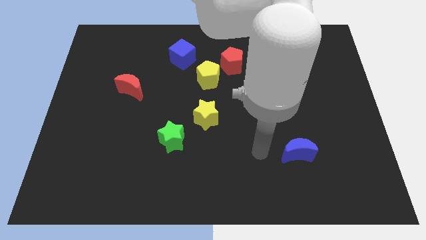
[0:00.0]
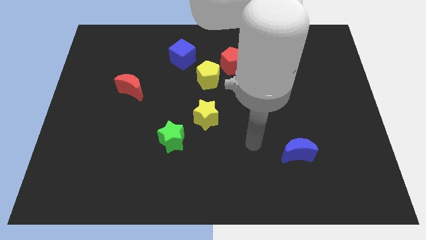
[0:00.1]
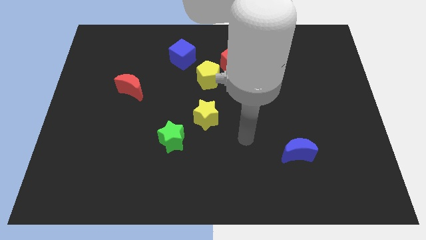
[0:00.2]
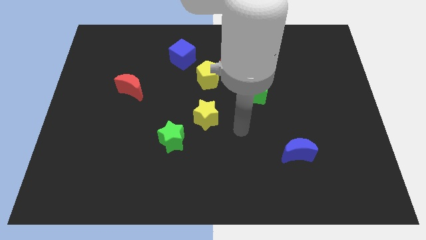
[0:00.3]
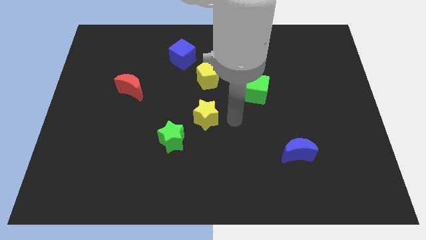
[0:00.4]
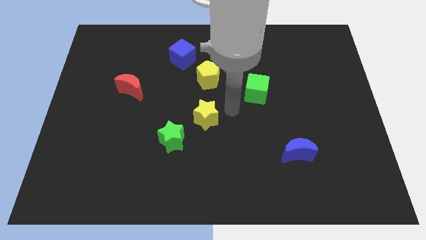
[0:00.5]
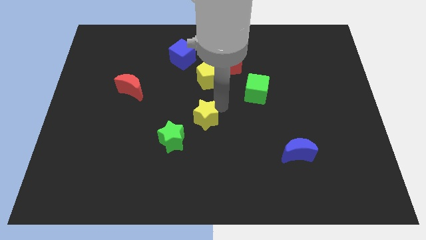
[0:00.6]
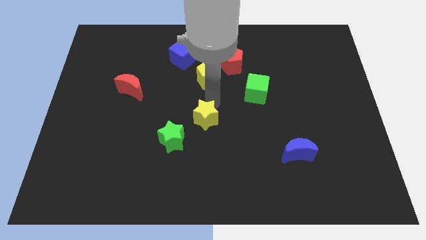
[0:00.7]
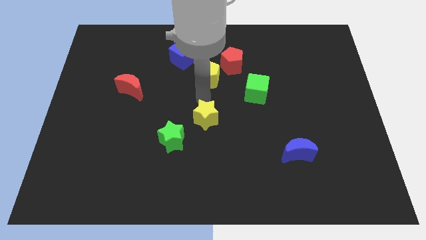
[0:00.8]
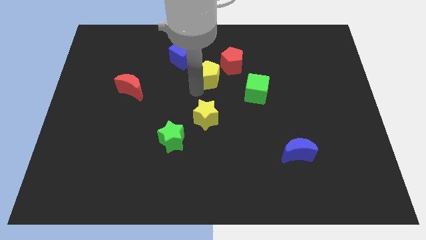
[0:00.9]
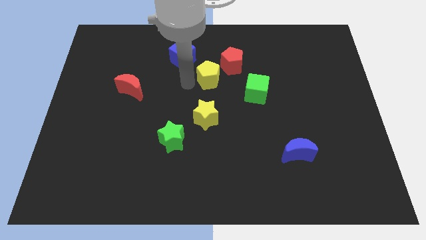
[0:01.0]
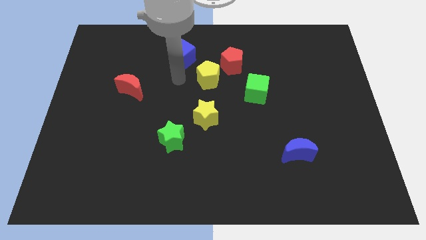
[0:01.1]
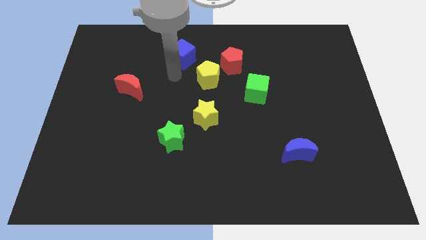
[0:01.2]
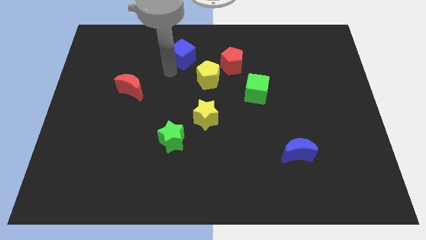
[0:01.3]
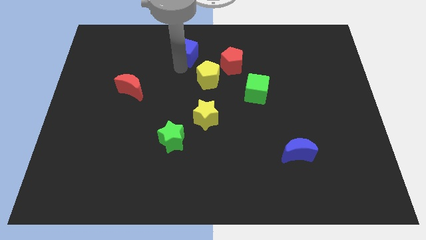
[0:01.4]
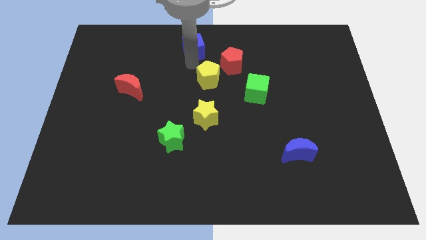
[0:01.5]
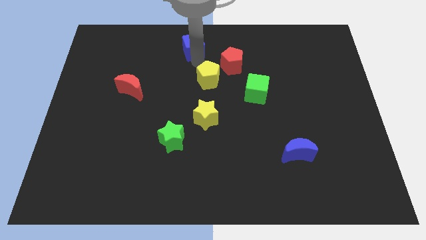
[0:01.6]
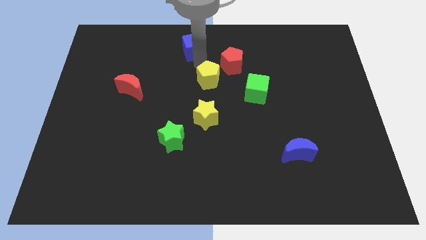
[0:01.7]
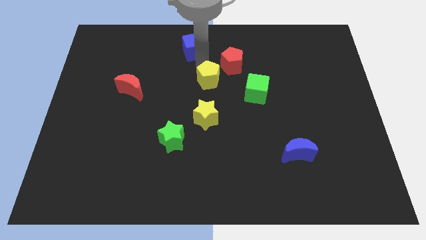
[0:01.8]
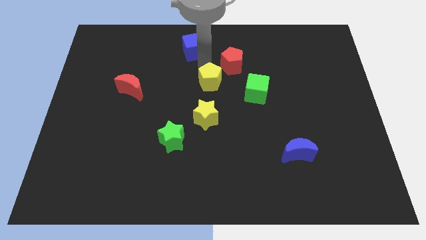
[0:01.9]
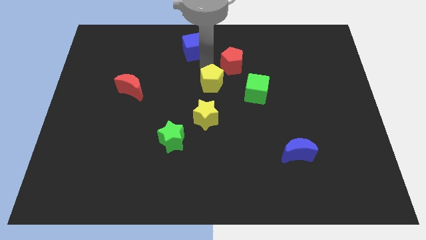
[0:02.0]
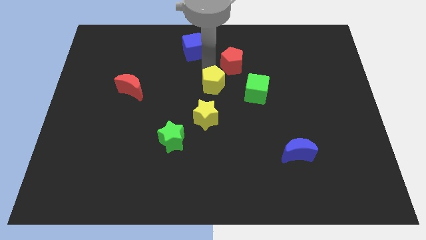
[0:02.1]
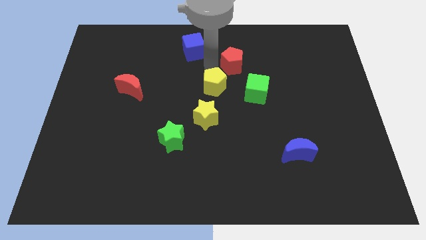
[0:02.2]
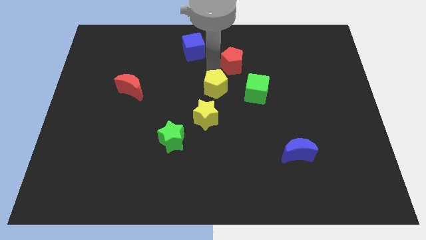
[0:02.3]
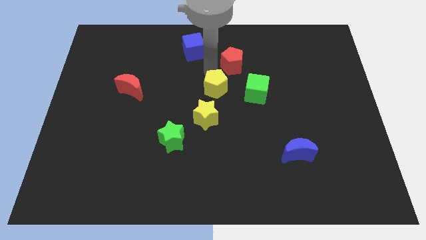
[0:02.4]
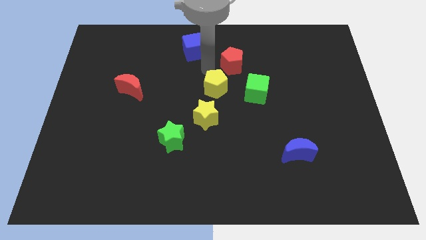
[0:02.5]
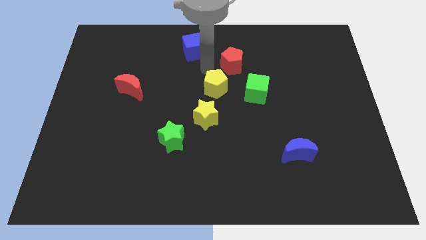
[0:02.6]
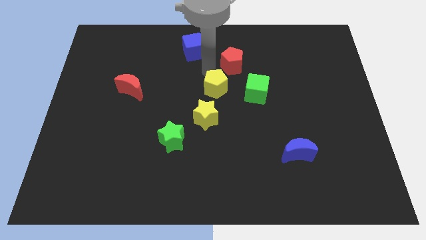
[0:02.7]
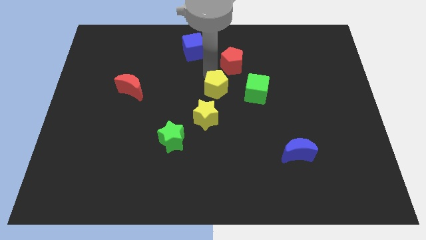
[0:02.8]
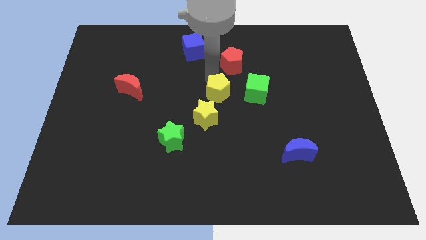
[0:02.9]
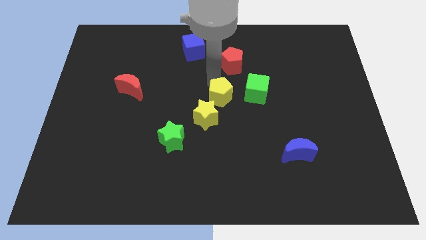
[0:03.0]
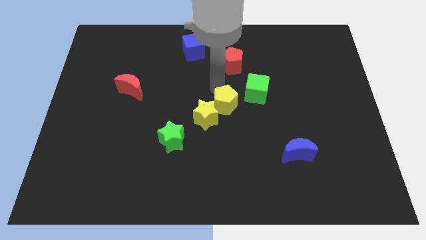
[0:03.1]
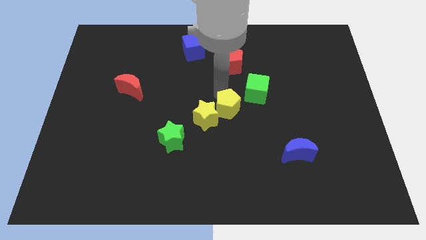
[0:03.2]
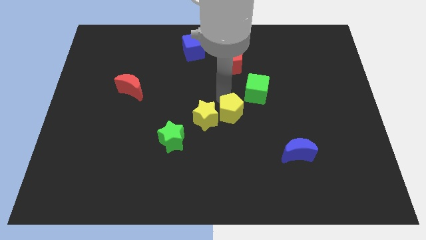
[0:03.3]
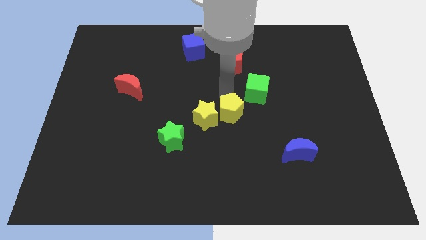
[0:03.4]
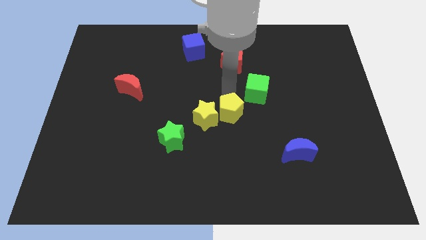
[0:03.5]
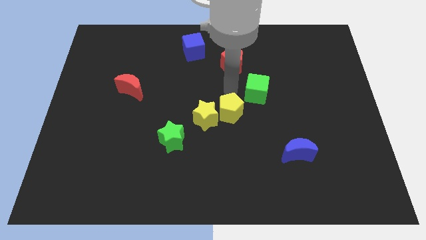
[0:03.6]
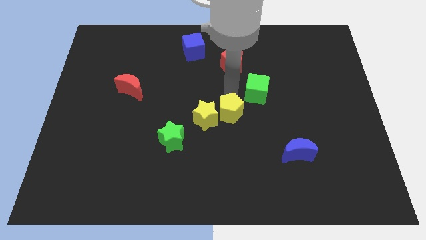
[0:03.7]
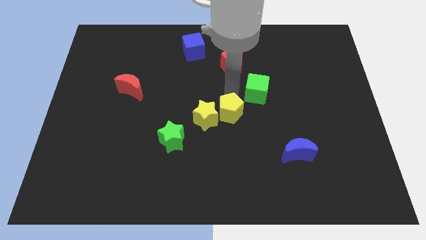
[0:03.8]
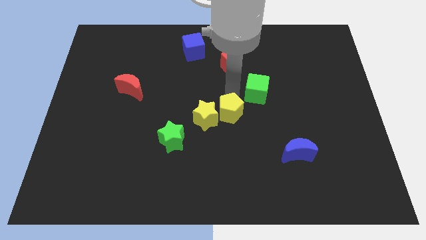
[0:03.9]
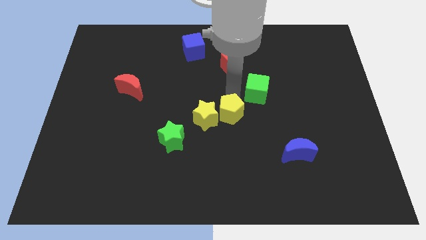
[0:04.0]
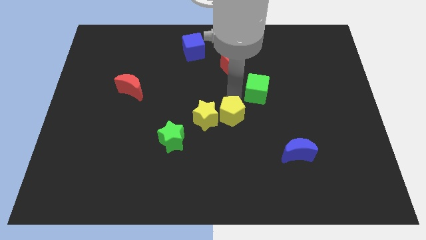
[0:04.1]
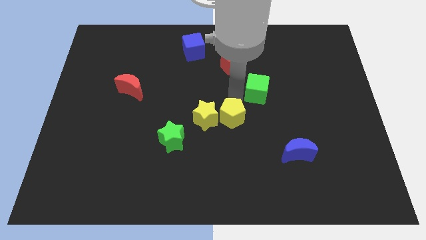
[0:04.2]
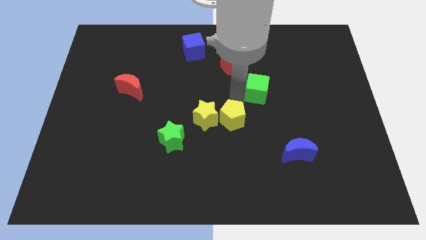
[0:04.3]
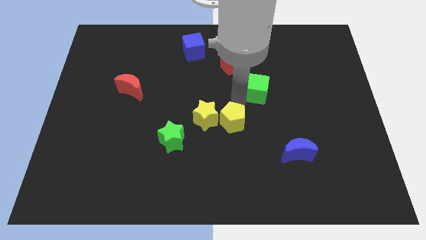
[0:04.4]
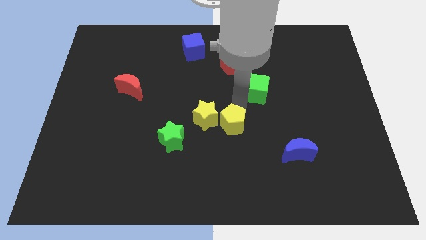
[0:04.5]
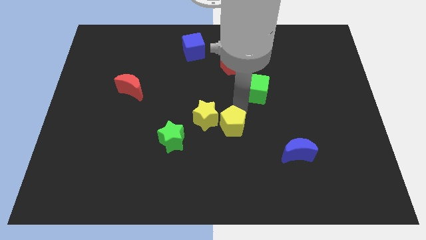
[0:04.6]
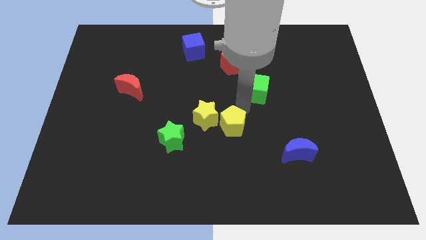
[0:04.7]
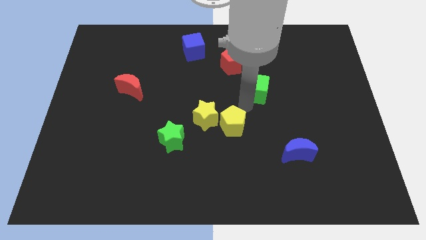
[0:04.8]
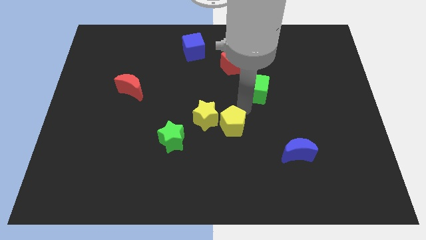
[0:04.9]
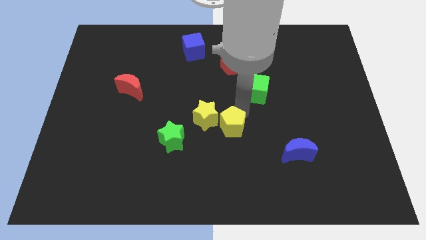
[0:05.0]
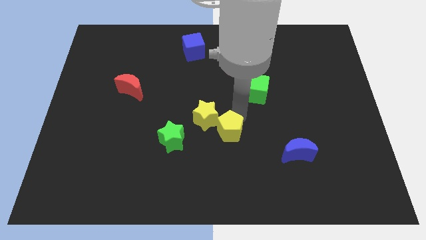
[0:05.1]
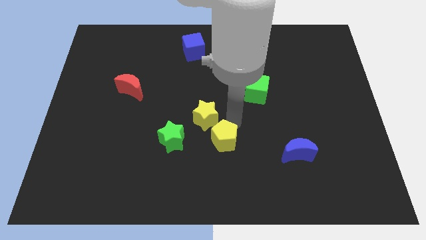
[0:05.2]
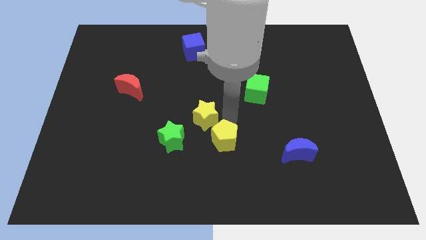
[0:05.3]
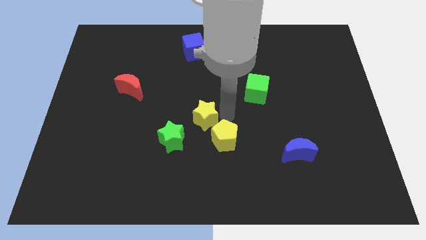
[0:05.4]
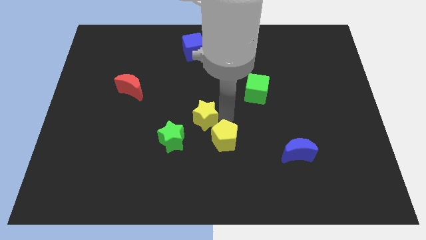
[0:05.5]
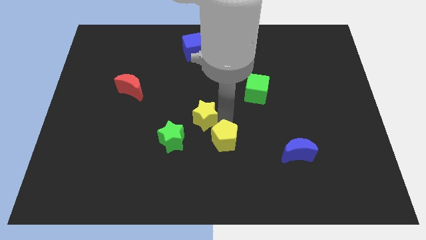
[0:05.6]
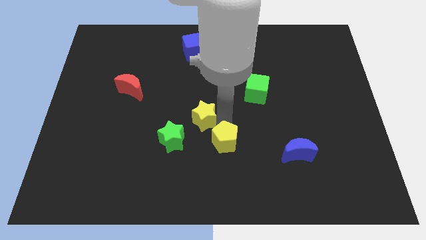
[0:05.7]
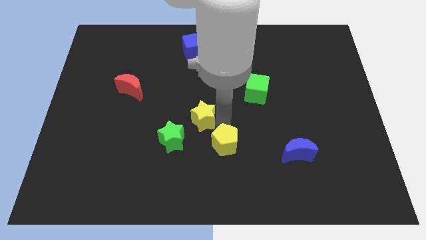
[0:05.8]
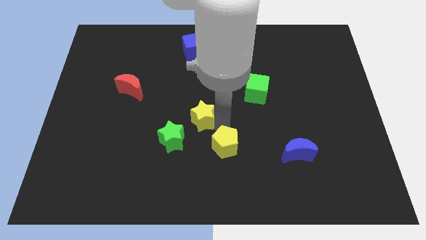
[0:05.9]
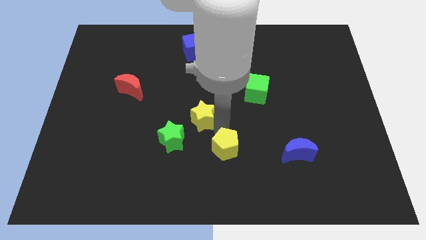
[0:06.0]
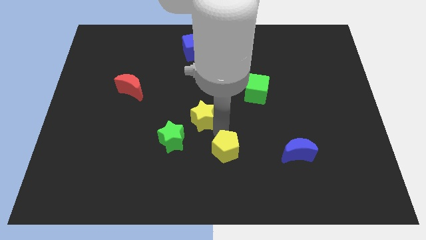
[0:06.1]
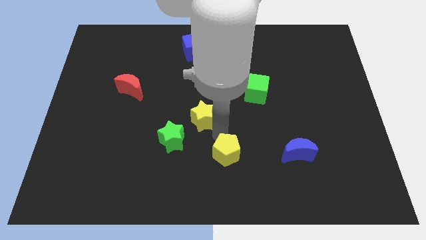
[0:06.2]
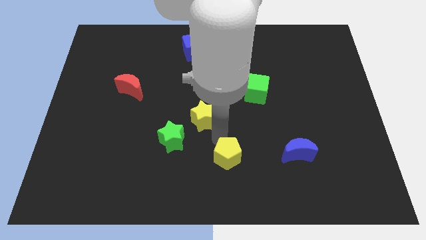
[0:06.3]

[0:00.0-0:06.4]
push the yellow pentagon to the bottom
